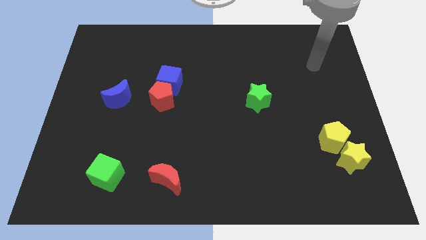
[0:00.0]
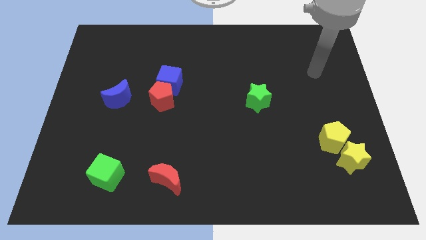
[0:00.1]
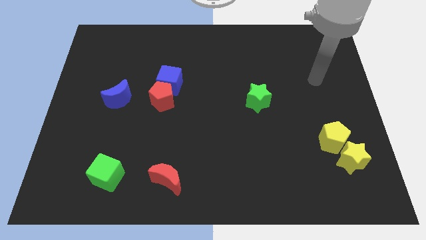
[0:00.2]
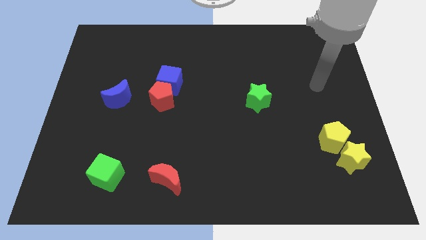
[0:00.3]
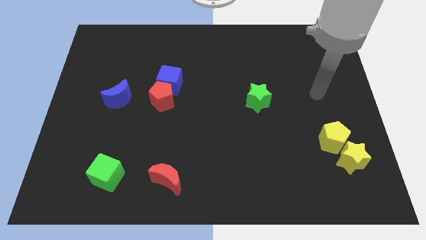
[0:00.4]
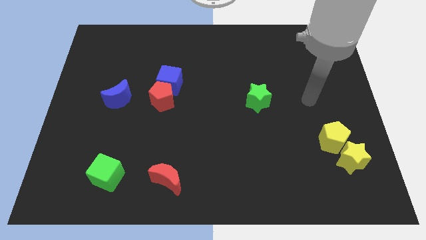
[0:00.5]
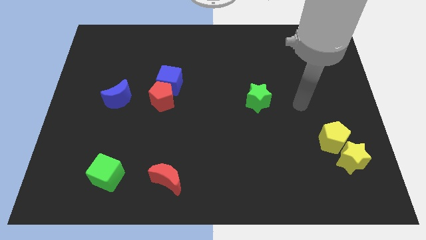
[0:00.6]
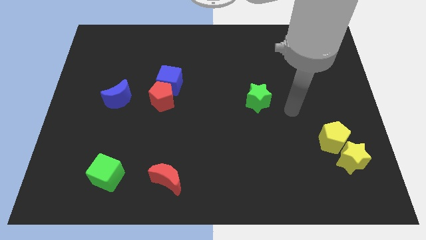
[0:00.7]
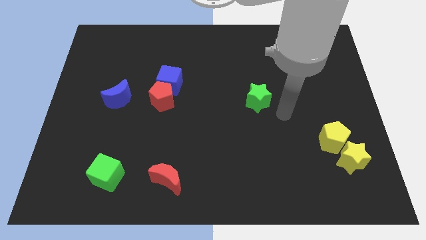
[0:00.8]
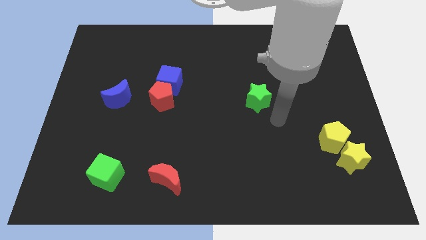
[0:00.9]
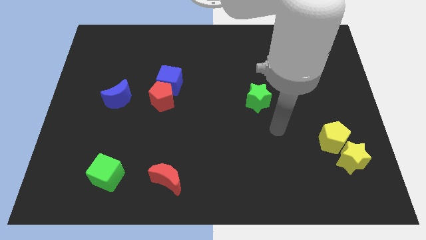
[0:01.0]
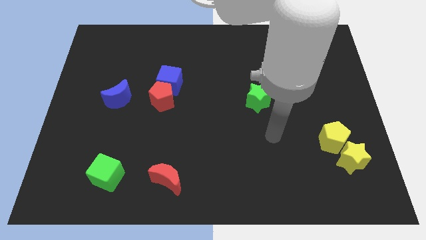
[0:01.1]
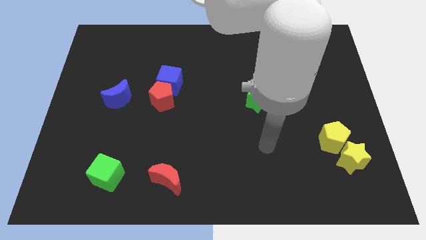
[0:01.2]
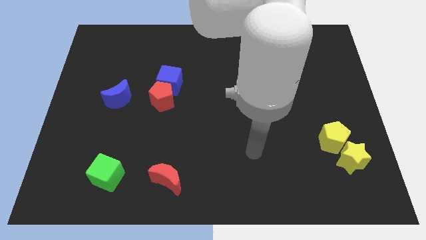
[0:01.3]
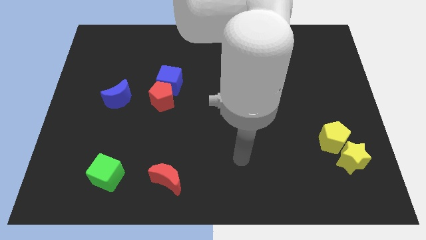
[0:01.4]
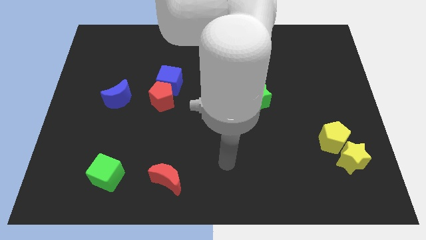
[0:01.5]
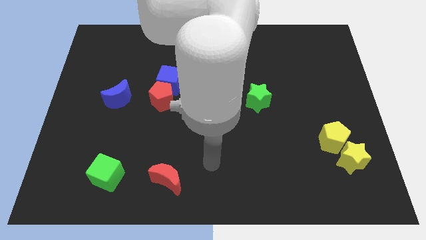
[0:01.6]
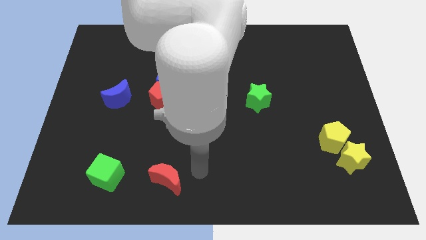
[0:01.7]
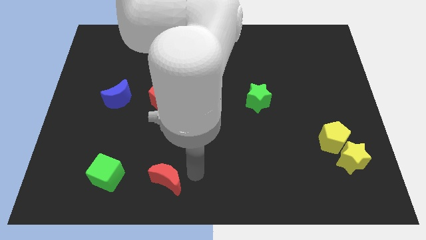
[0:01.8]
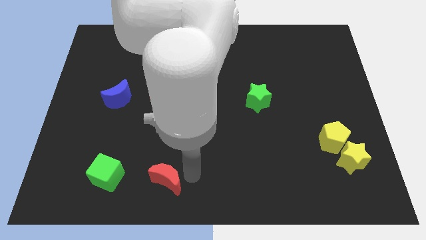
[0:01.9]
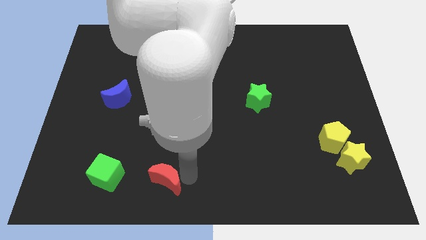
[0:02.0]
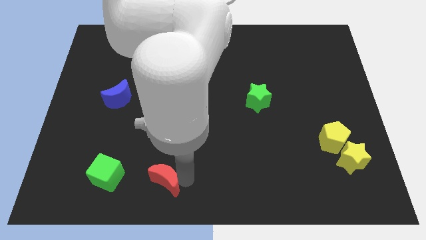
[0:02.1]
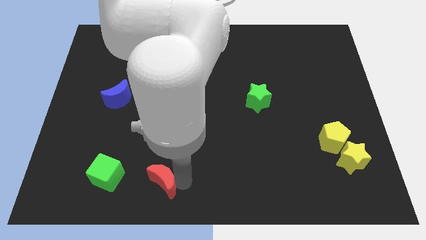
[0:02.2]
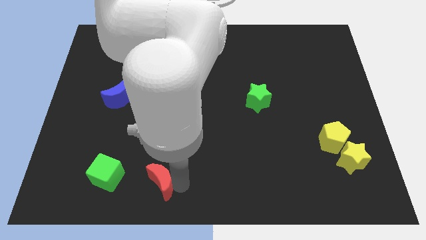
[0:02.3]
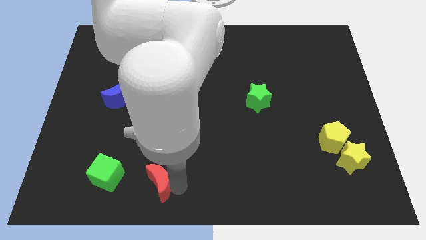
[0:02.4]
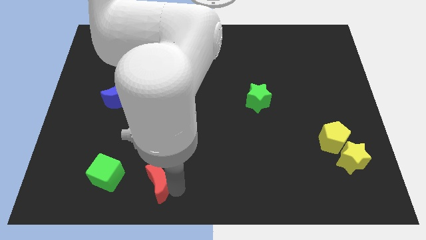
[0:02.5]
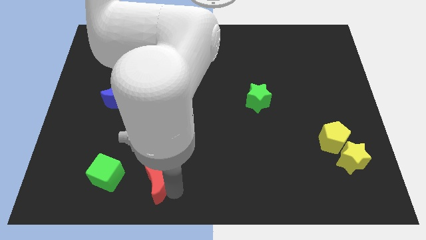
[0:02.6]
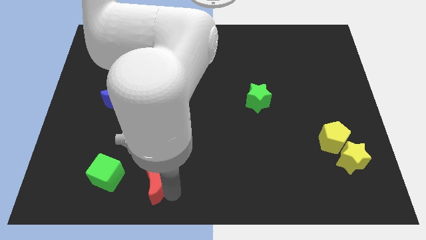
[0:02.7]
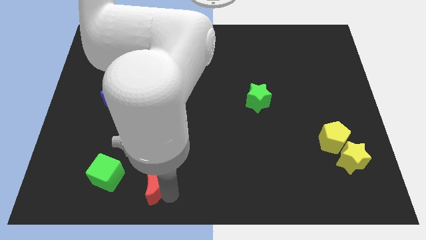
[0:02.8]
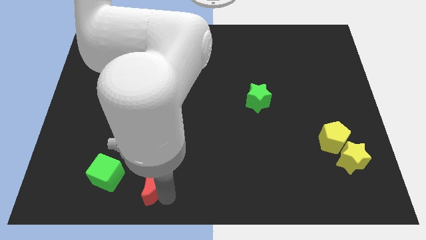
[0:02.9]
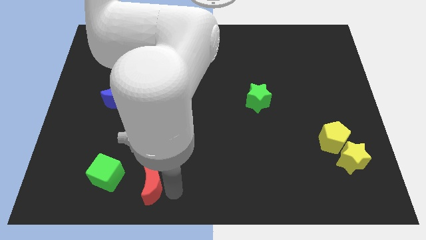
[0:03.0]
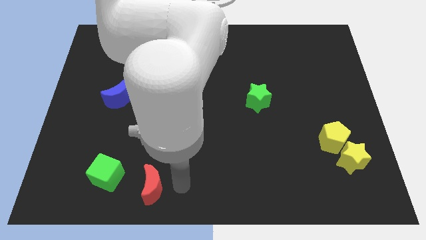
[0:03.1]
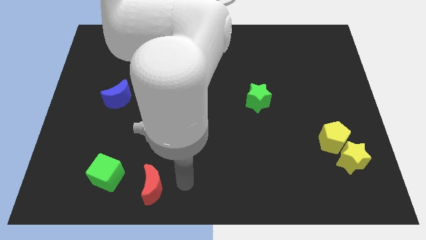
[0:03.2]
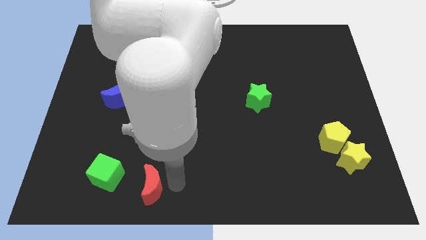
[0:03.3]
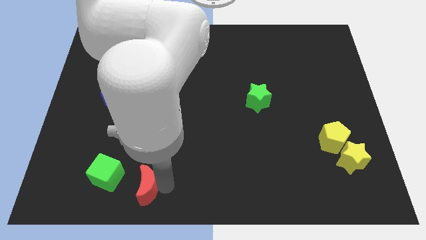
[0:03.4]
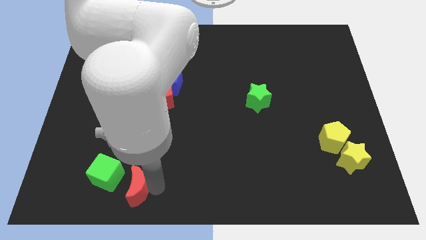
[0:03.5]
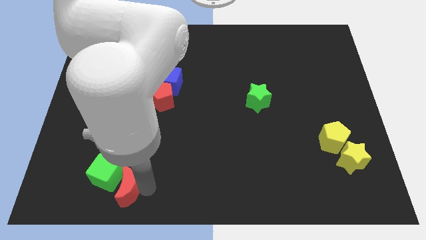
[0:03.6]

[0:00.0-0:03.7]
slightly slide the red moon left

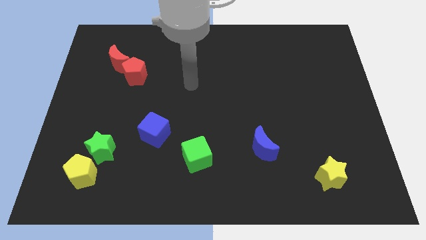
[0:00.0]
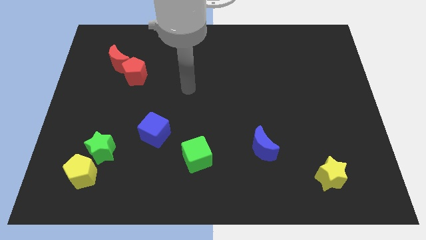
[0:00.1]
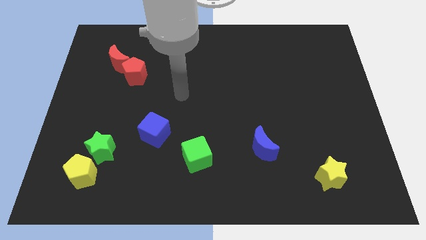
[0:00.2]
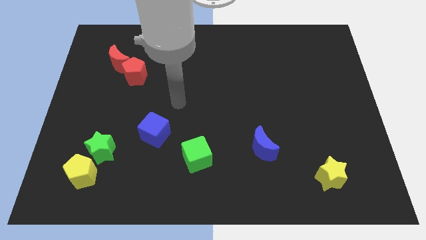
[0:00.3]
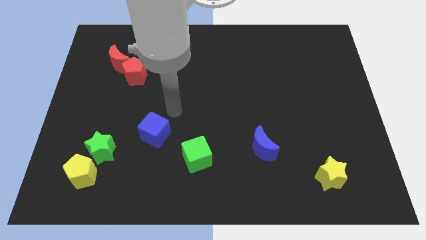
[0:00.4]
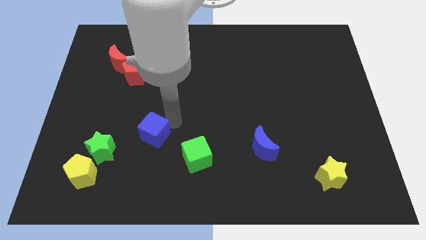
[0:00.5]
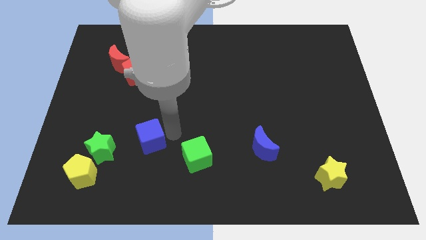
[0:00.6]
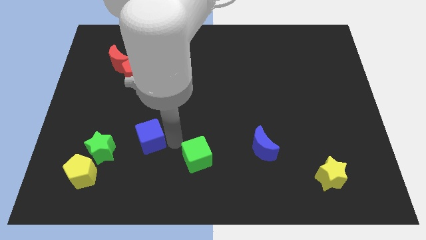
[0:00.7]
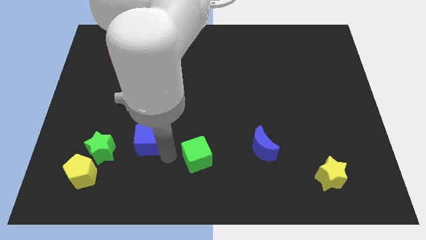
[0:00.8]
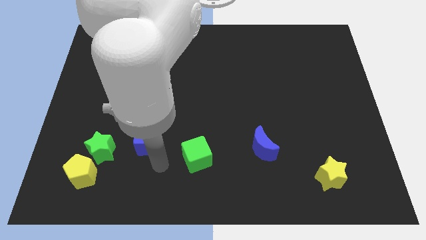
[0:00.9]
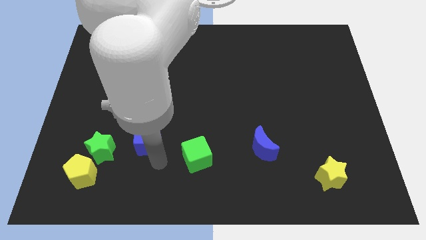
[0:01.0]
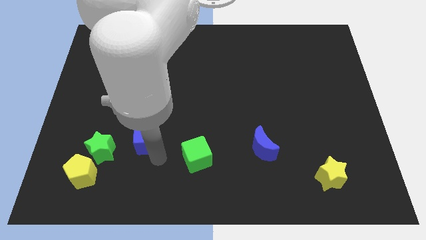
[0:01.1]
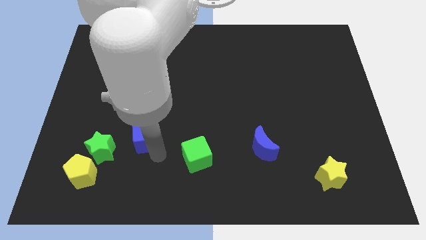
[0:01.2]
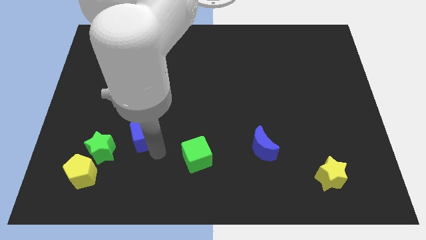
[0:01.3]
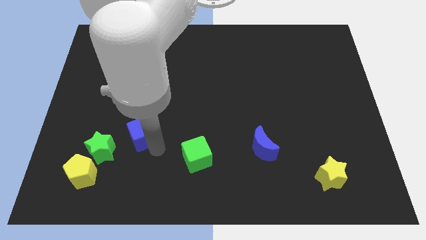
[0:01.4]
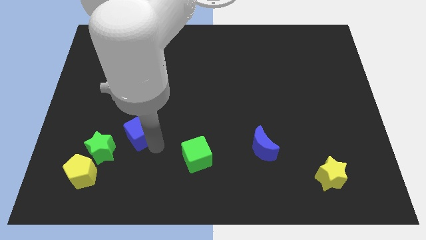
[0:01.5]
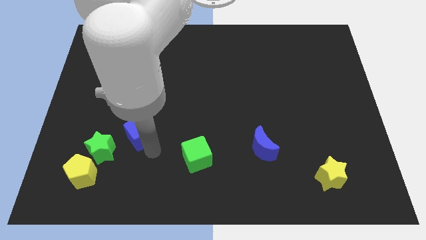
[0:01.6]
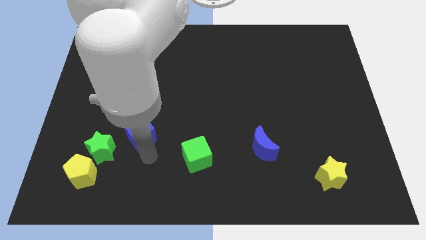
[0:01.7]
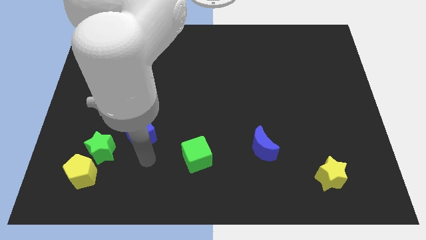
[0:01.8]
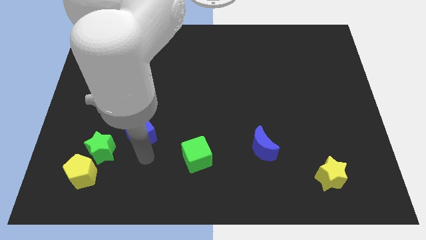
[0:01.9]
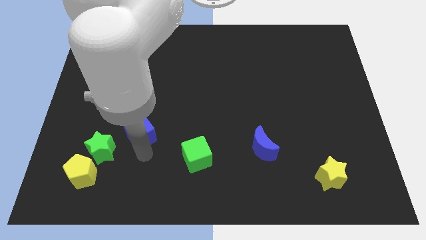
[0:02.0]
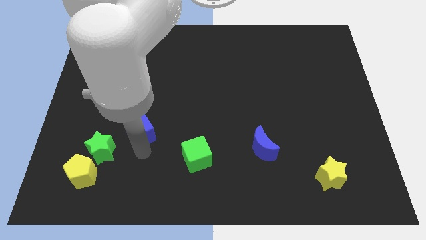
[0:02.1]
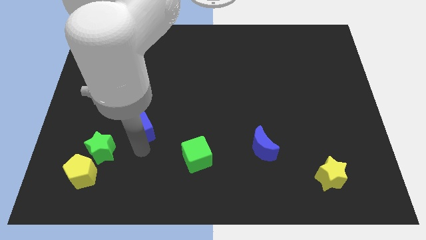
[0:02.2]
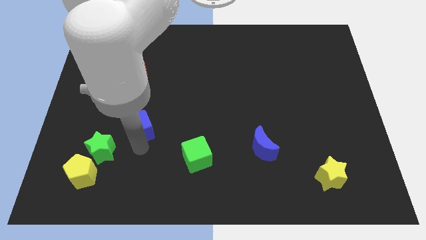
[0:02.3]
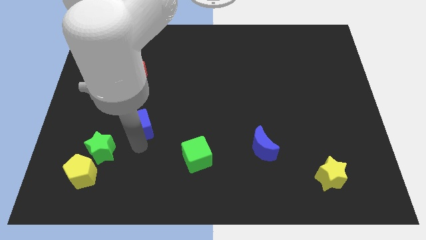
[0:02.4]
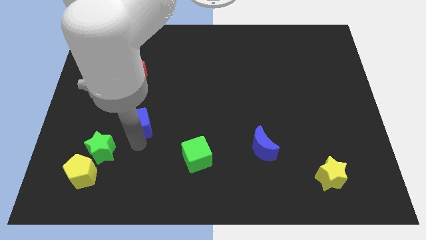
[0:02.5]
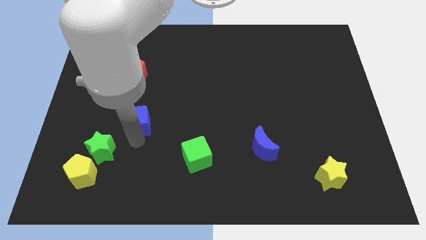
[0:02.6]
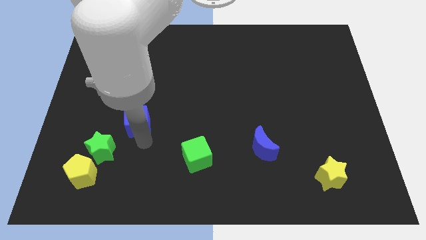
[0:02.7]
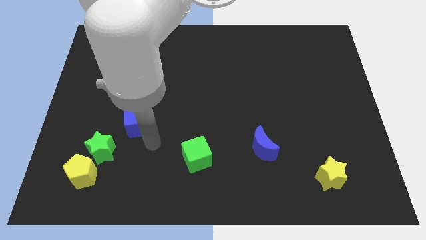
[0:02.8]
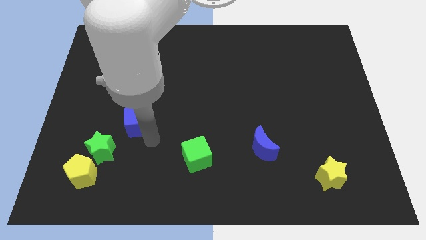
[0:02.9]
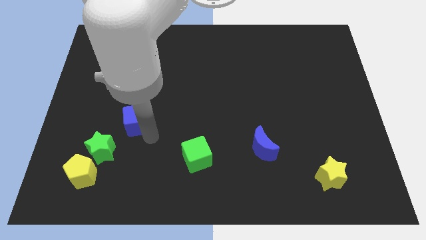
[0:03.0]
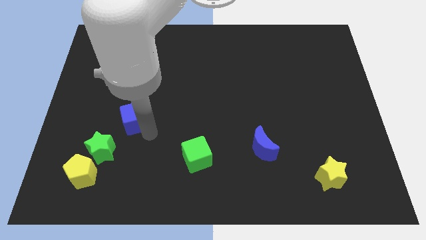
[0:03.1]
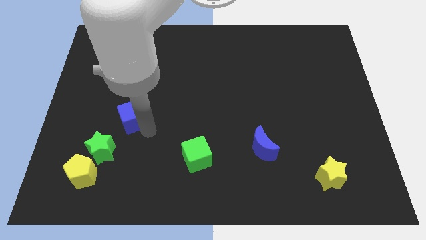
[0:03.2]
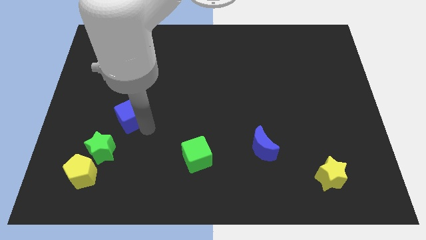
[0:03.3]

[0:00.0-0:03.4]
slightly move the blue cube upwards and left

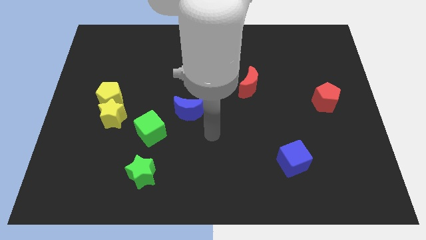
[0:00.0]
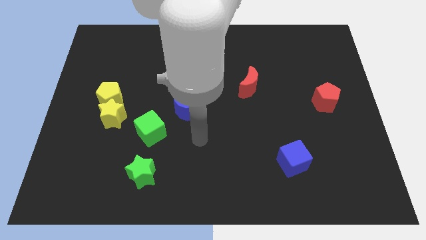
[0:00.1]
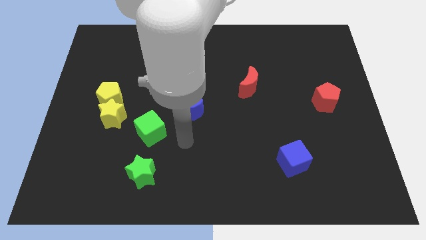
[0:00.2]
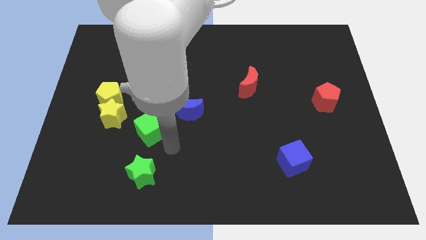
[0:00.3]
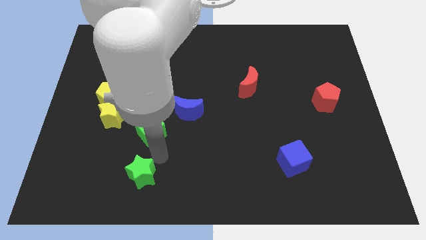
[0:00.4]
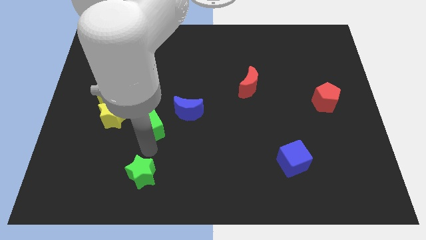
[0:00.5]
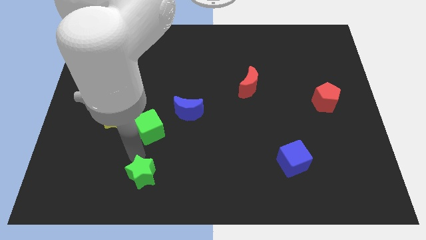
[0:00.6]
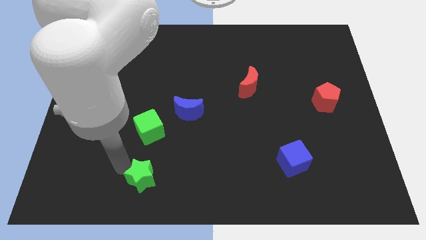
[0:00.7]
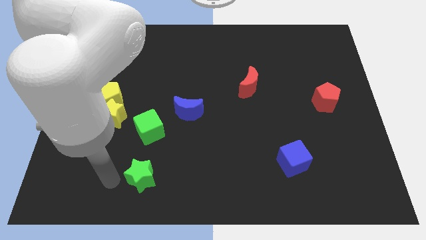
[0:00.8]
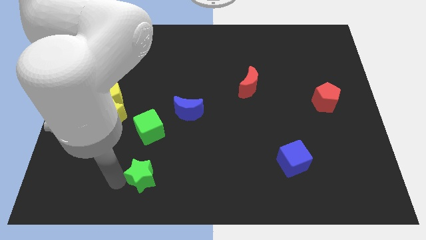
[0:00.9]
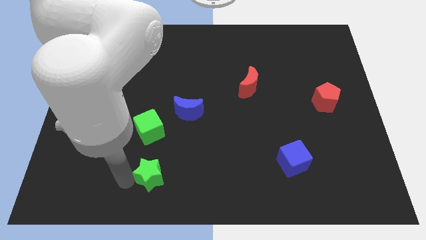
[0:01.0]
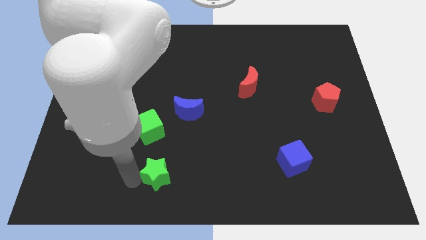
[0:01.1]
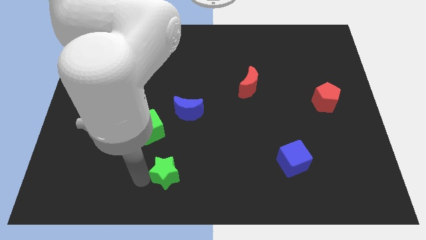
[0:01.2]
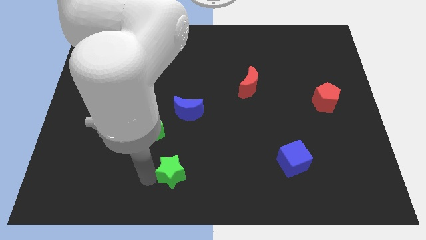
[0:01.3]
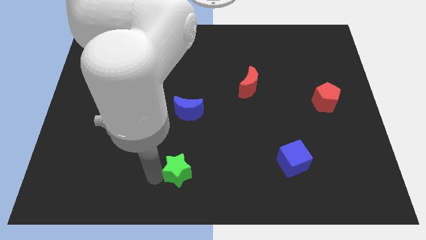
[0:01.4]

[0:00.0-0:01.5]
slide the green star to the right a little bit
